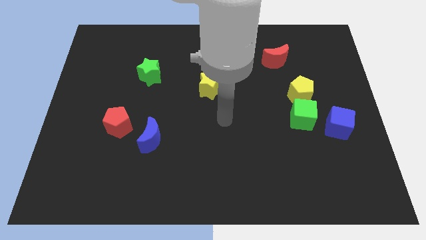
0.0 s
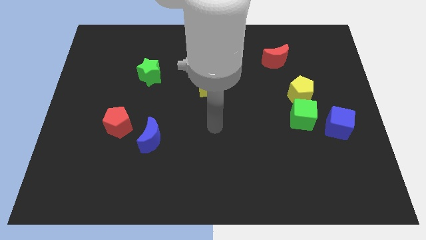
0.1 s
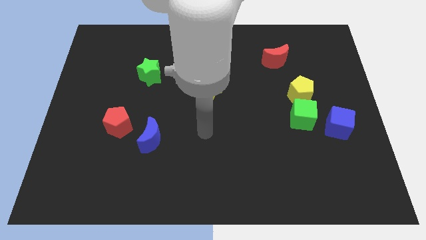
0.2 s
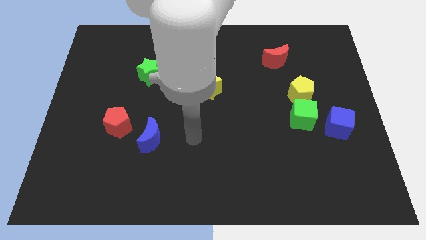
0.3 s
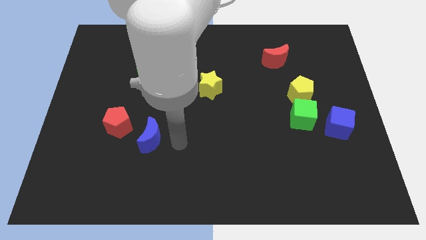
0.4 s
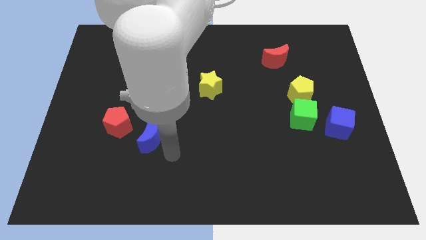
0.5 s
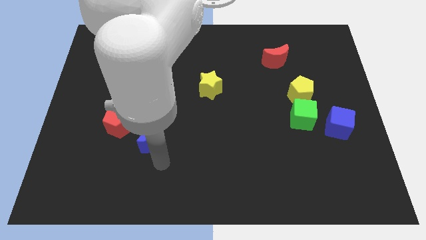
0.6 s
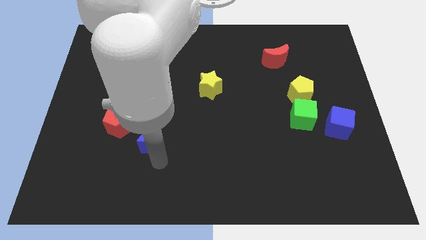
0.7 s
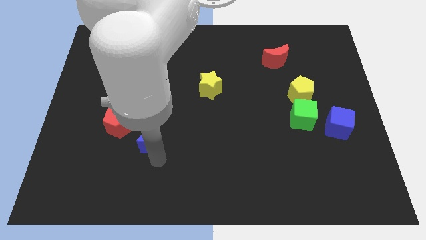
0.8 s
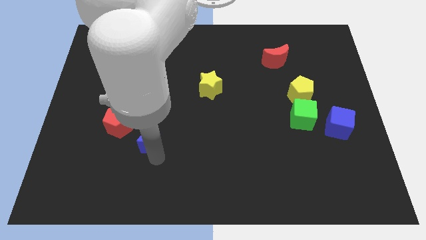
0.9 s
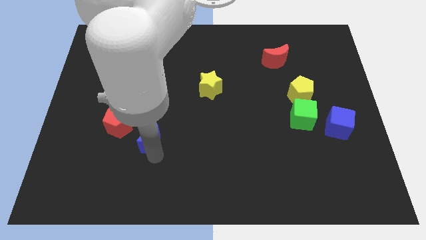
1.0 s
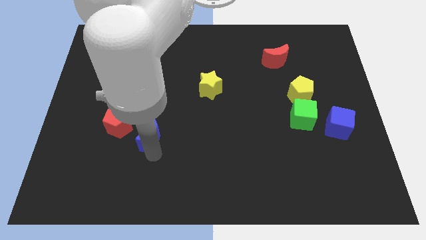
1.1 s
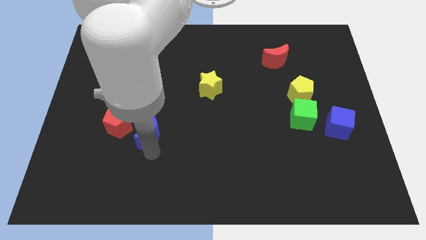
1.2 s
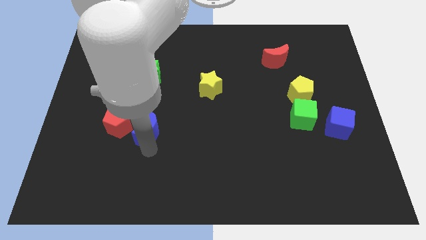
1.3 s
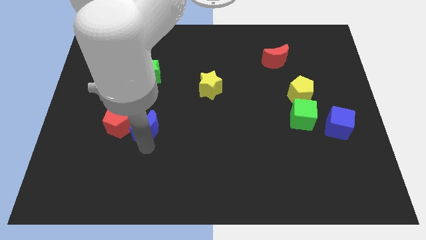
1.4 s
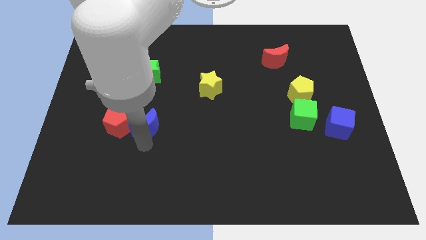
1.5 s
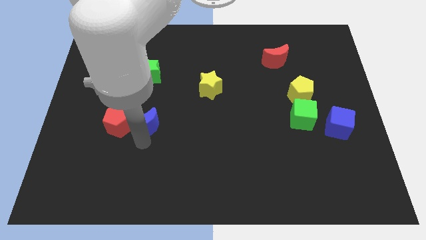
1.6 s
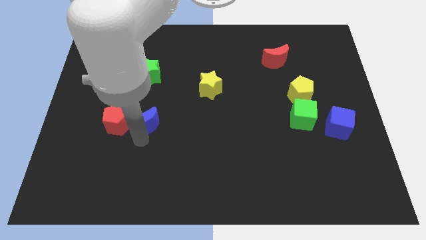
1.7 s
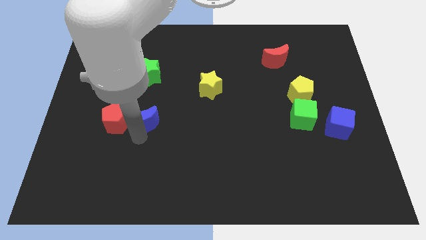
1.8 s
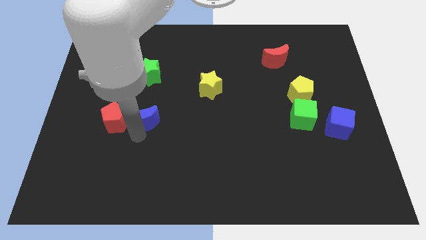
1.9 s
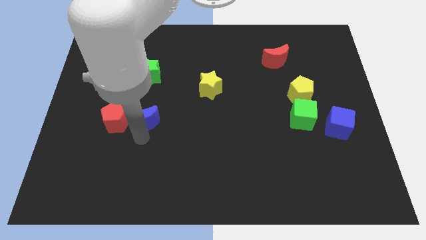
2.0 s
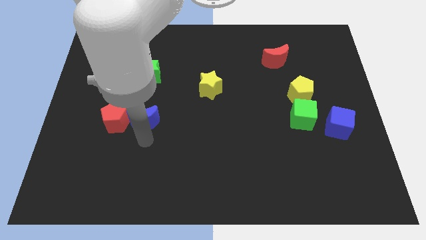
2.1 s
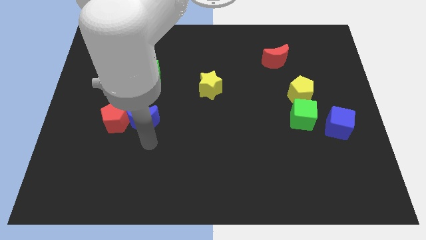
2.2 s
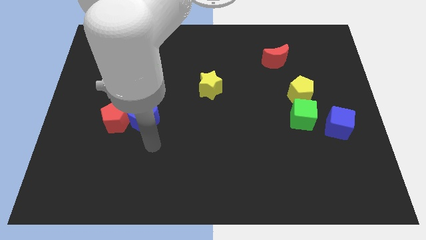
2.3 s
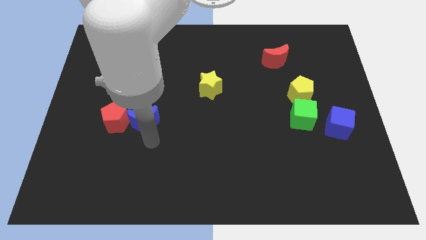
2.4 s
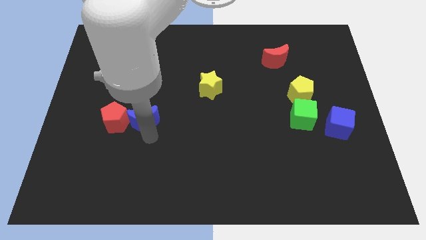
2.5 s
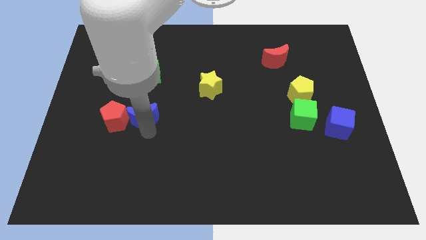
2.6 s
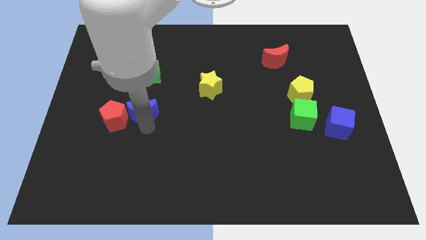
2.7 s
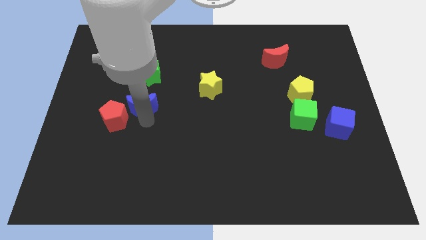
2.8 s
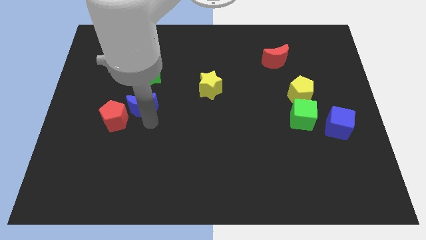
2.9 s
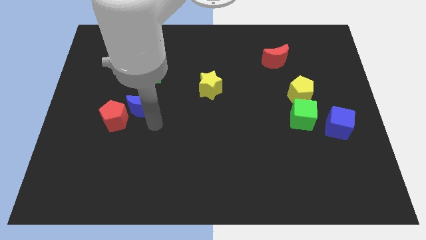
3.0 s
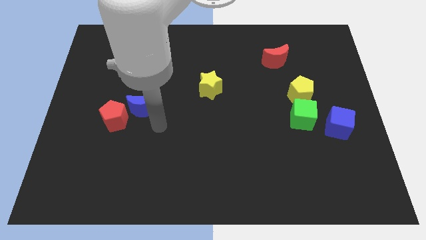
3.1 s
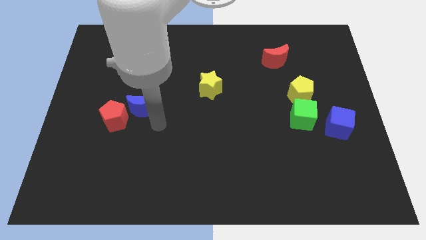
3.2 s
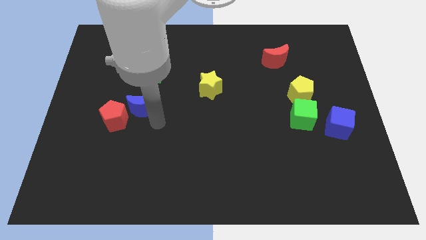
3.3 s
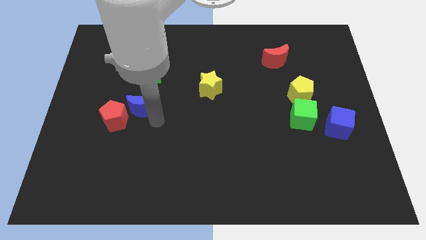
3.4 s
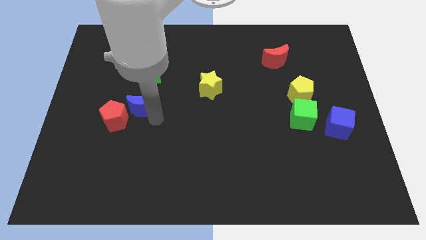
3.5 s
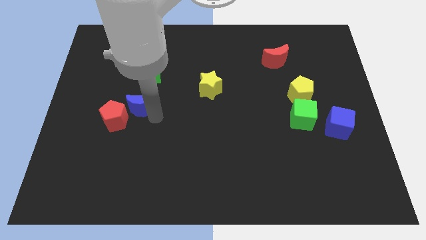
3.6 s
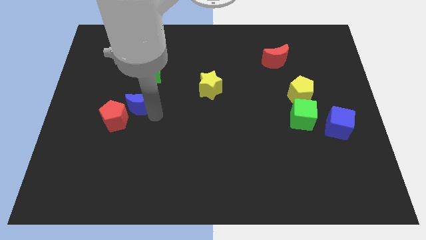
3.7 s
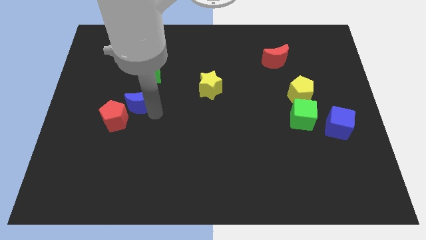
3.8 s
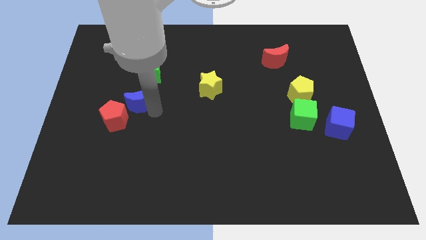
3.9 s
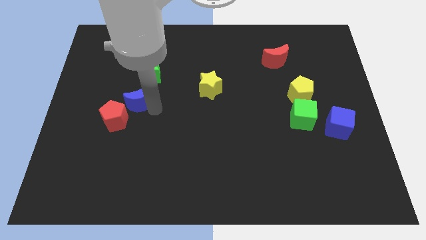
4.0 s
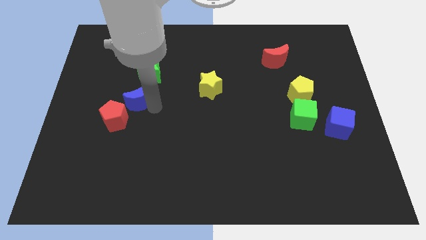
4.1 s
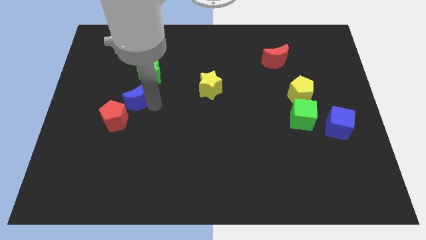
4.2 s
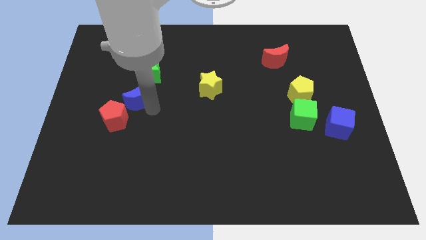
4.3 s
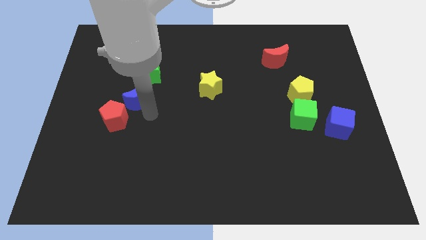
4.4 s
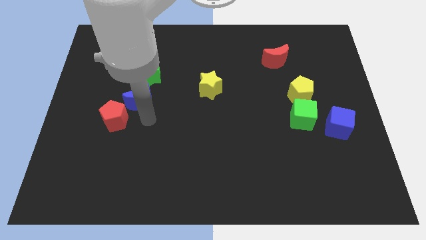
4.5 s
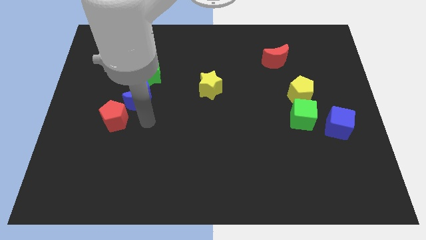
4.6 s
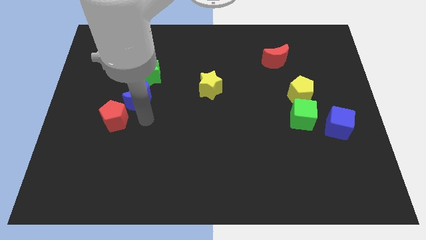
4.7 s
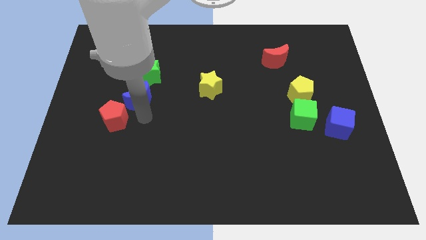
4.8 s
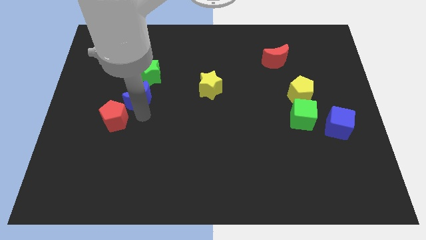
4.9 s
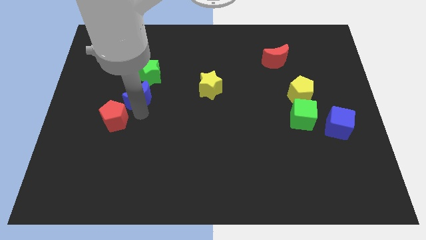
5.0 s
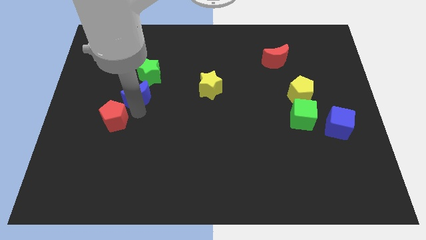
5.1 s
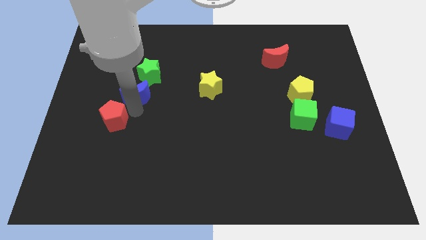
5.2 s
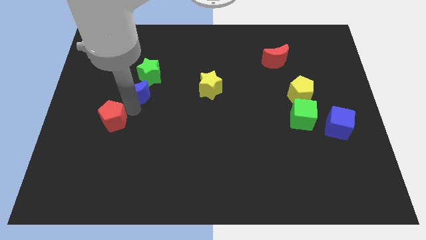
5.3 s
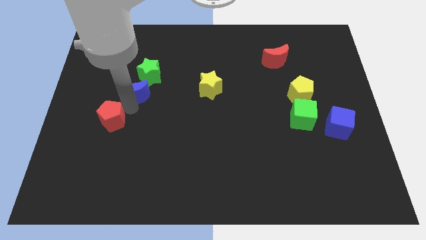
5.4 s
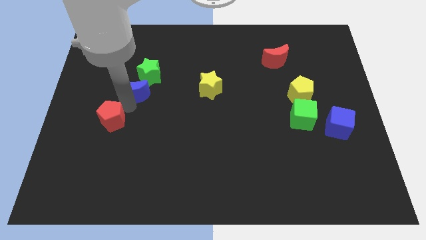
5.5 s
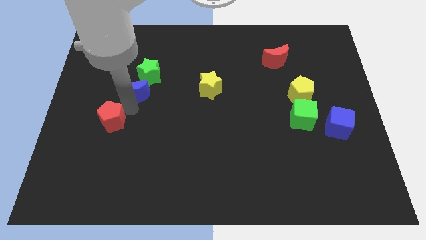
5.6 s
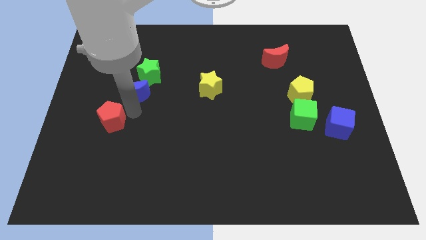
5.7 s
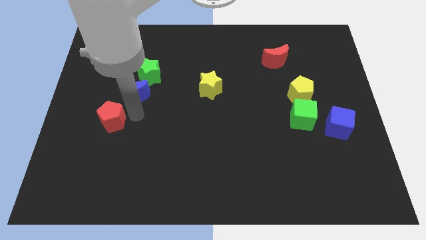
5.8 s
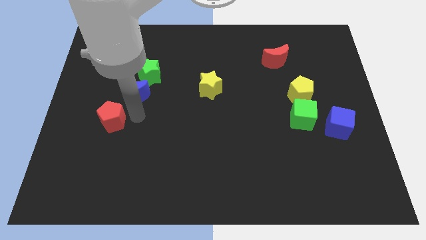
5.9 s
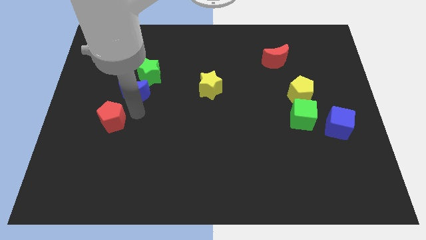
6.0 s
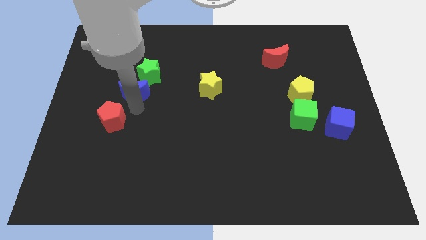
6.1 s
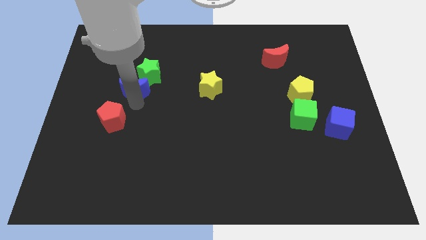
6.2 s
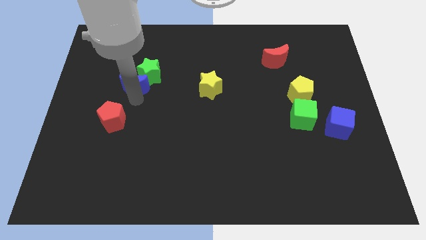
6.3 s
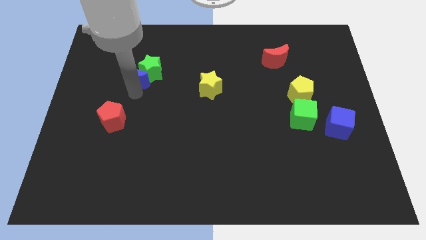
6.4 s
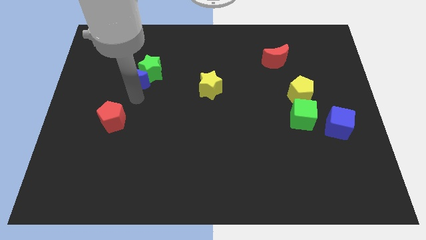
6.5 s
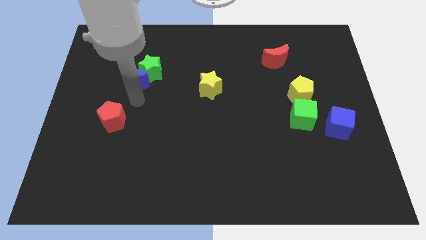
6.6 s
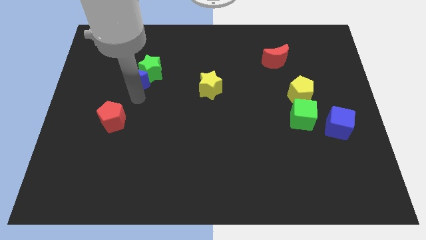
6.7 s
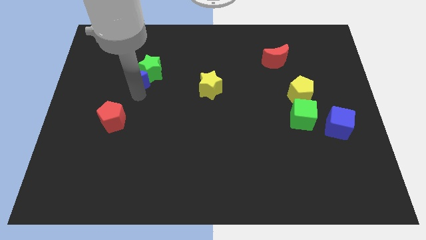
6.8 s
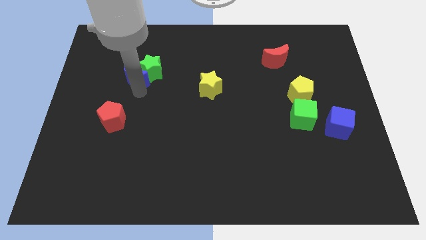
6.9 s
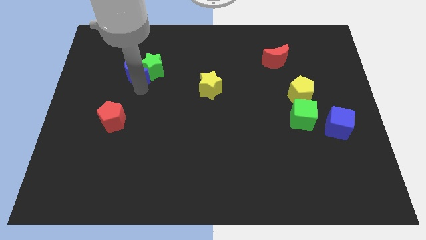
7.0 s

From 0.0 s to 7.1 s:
slide the blue moon diagonally up and to the left of the green star
